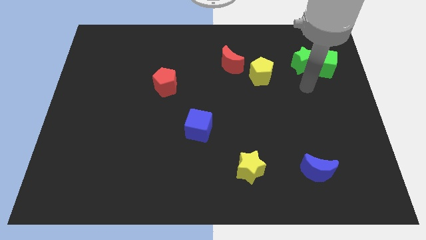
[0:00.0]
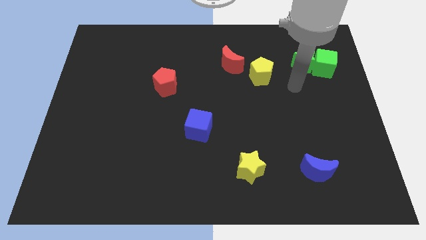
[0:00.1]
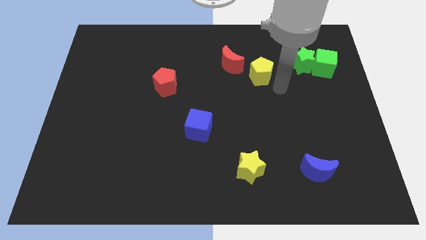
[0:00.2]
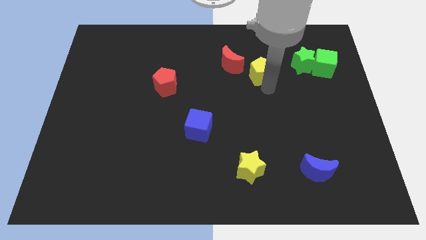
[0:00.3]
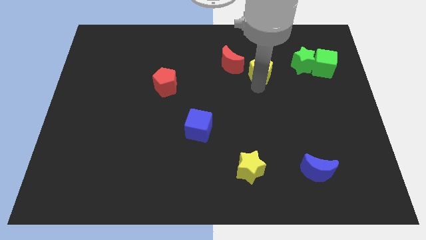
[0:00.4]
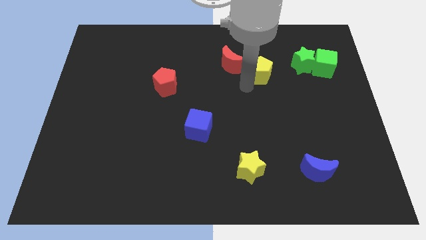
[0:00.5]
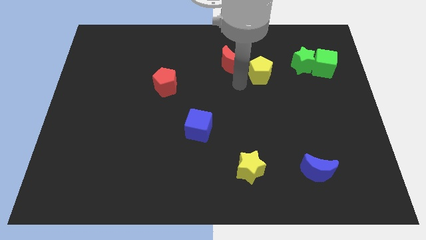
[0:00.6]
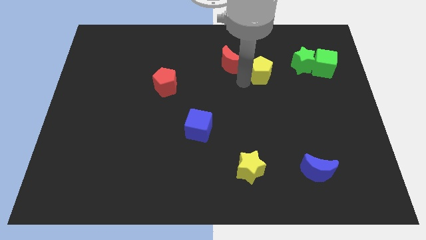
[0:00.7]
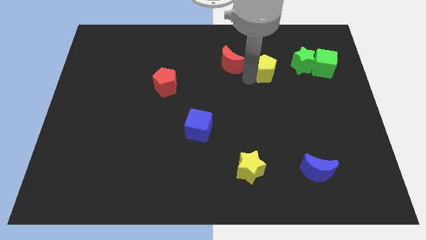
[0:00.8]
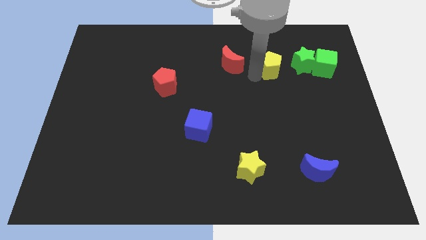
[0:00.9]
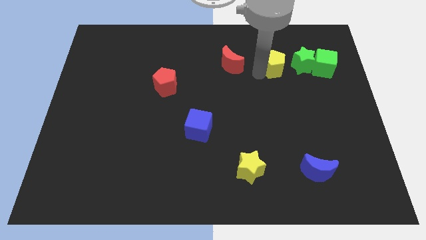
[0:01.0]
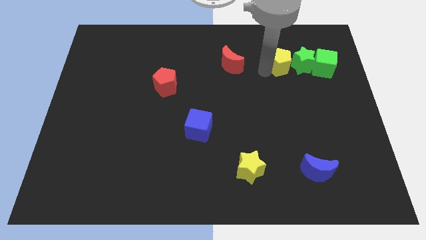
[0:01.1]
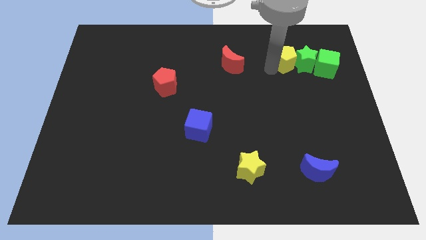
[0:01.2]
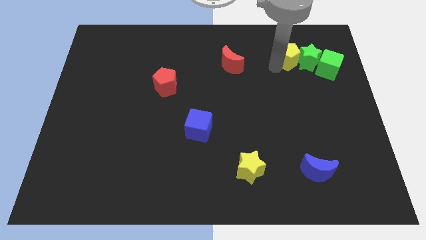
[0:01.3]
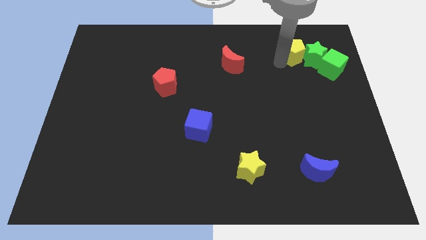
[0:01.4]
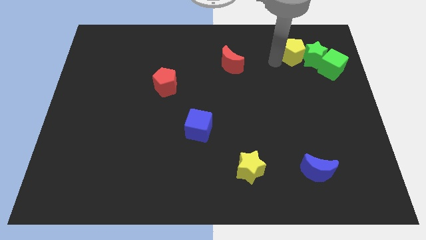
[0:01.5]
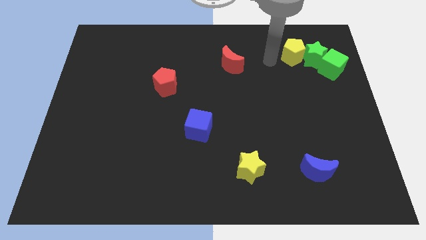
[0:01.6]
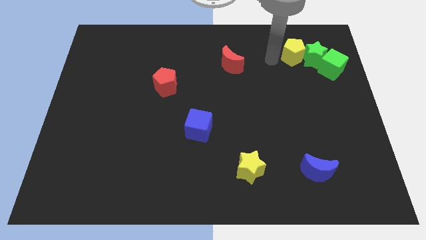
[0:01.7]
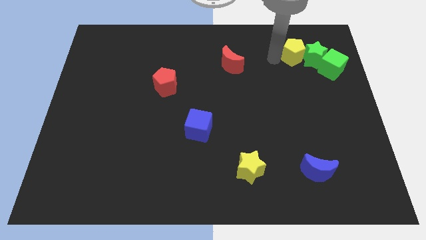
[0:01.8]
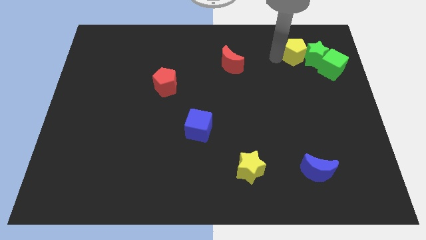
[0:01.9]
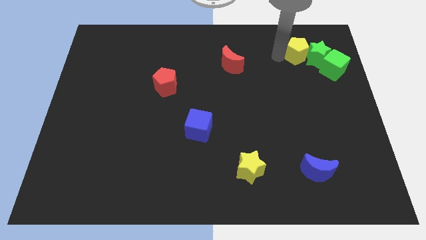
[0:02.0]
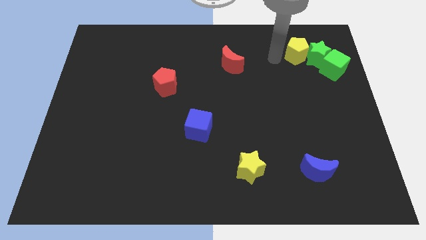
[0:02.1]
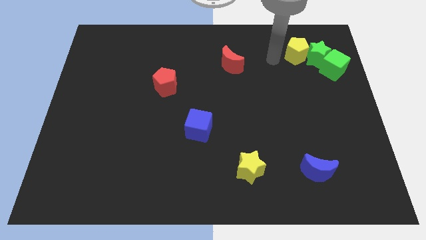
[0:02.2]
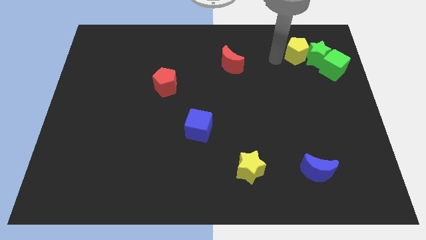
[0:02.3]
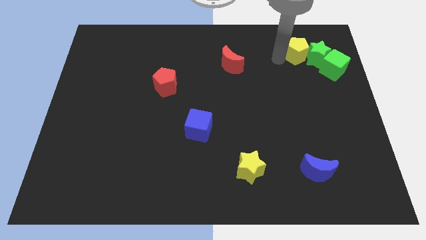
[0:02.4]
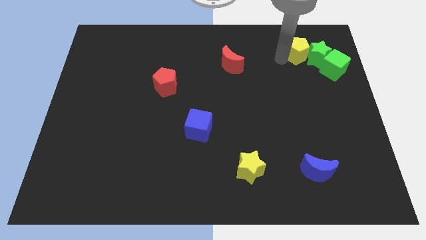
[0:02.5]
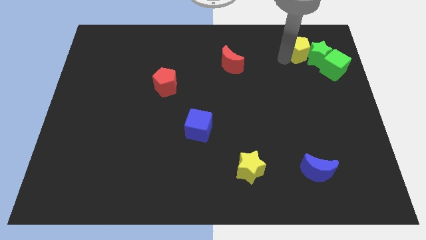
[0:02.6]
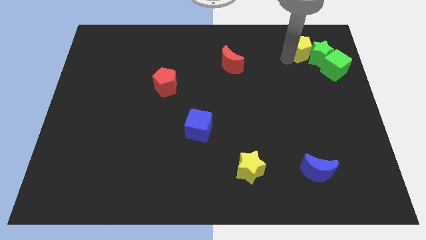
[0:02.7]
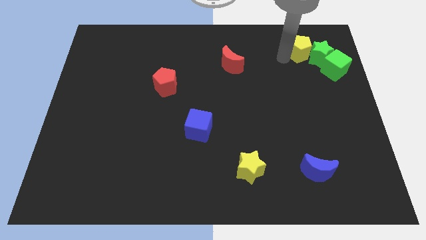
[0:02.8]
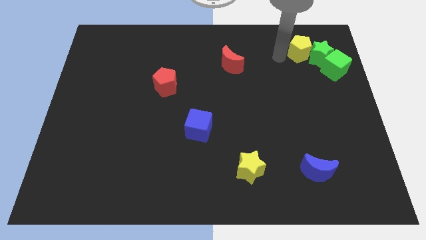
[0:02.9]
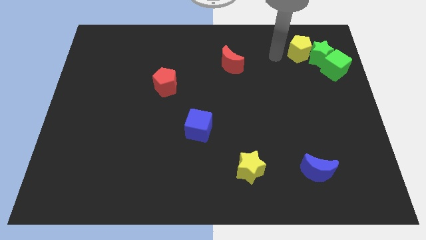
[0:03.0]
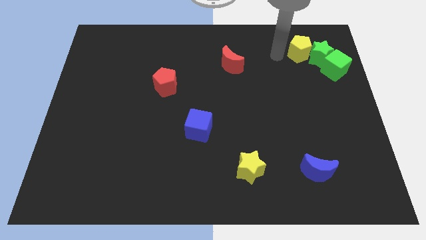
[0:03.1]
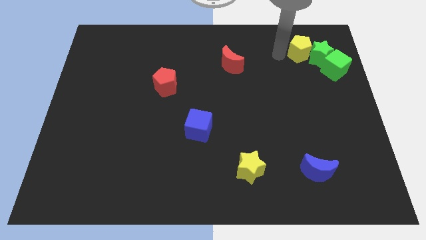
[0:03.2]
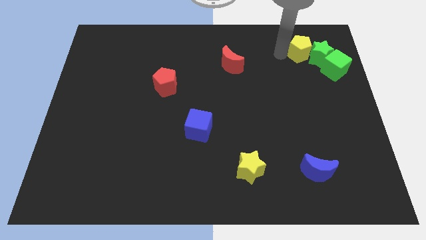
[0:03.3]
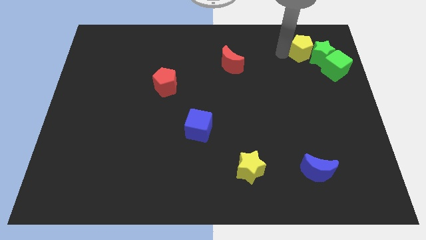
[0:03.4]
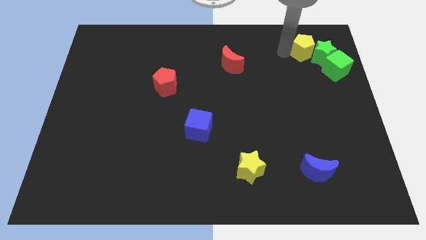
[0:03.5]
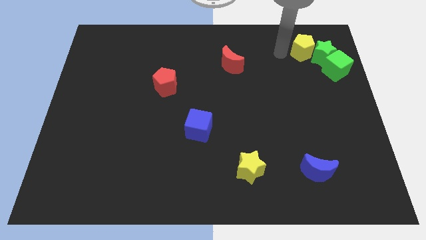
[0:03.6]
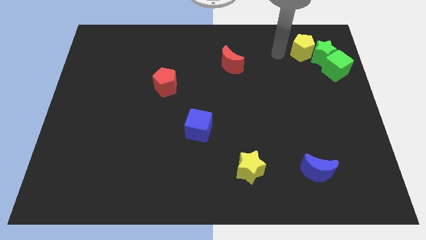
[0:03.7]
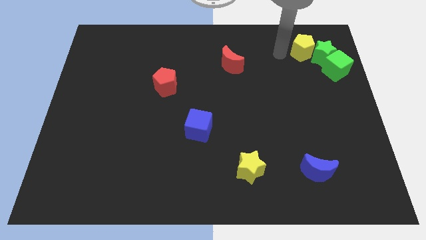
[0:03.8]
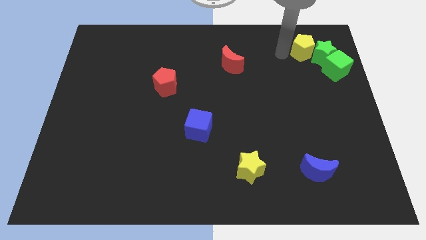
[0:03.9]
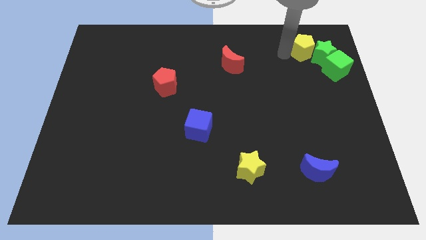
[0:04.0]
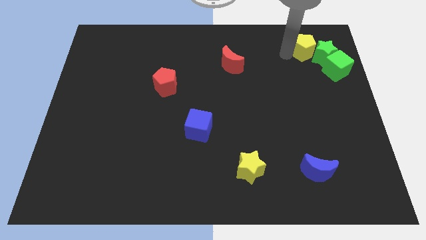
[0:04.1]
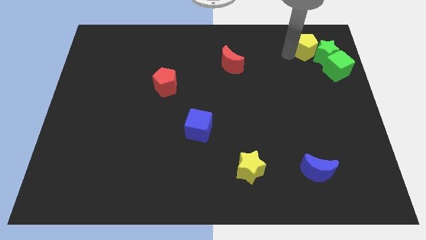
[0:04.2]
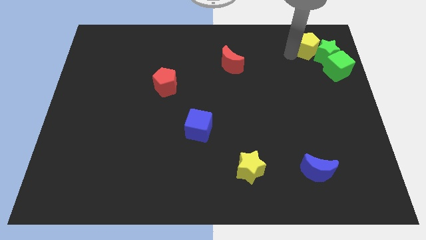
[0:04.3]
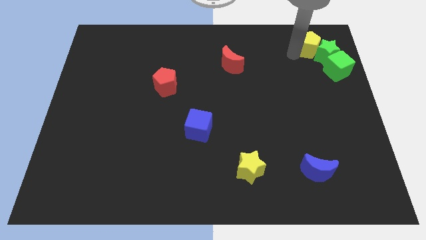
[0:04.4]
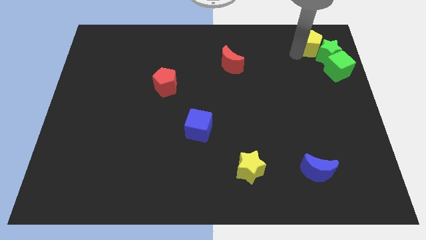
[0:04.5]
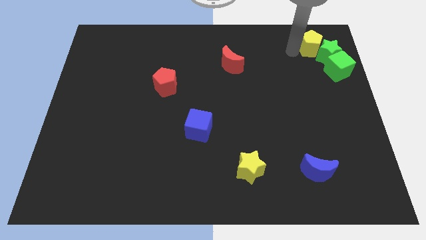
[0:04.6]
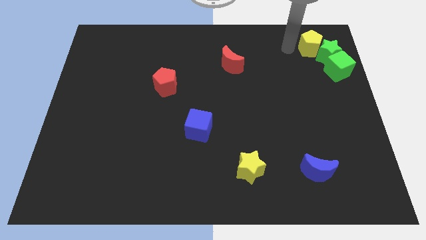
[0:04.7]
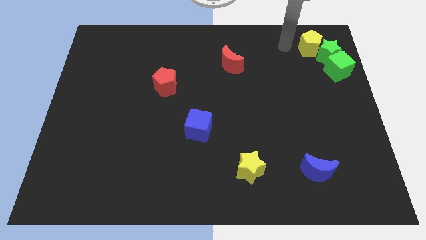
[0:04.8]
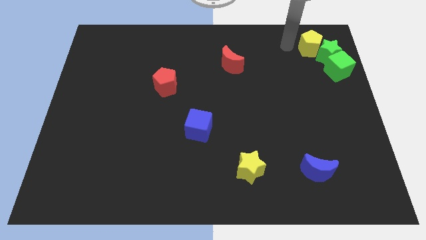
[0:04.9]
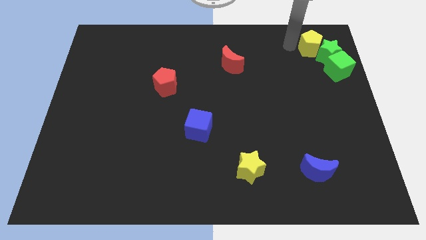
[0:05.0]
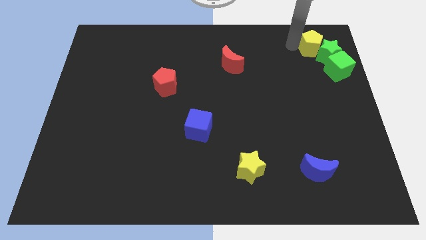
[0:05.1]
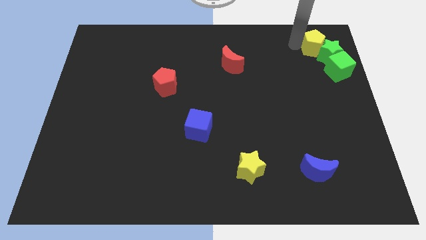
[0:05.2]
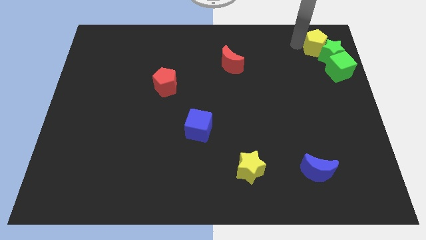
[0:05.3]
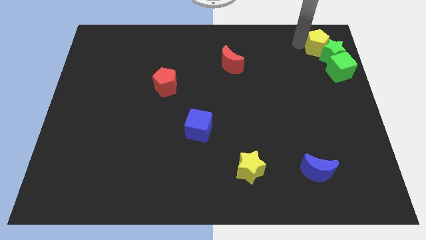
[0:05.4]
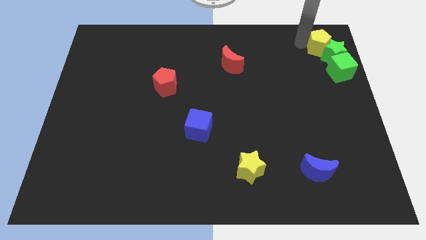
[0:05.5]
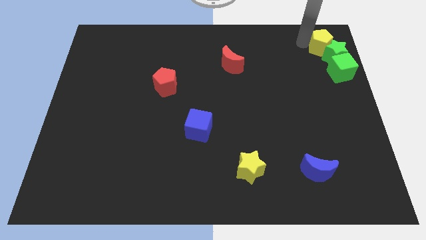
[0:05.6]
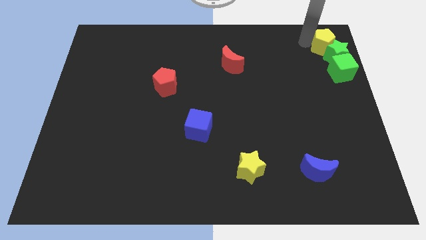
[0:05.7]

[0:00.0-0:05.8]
move the yellow pentagon to the top right corner
